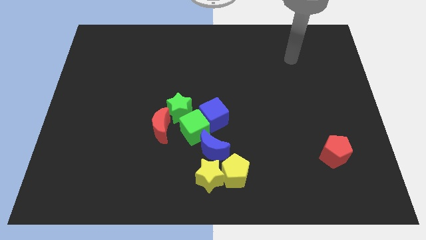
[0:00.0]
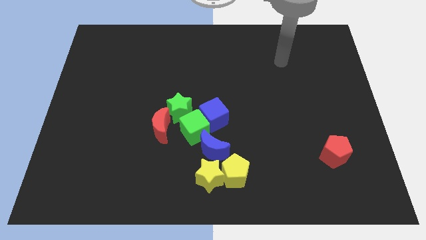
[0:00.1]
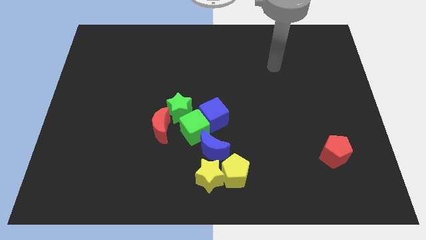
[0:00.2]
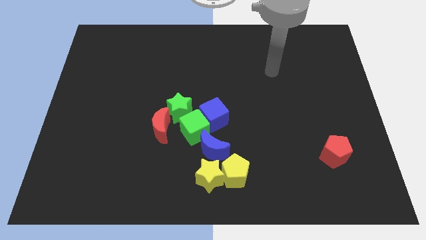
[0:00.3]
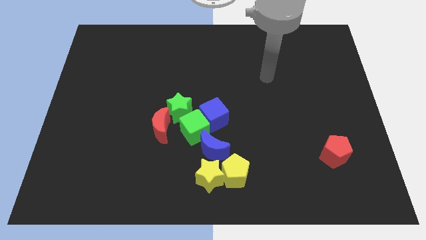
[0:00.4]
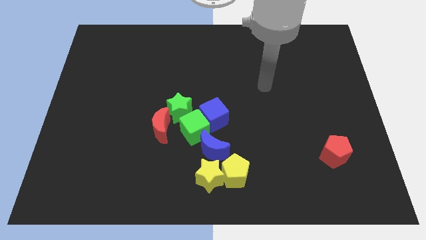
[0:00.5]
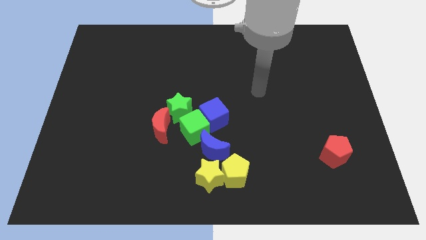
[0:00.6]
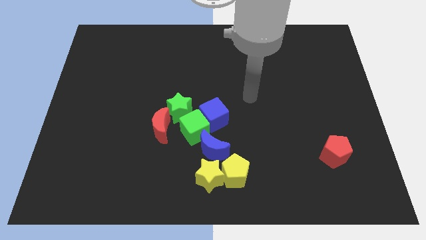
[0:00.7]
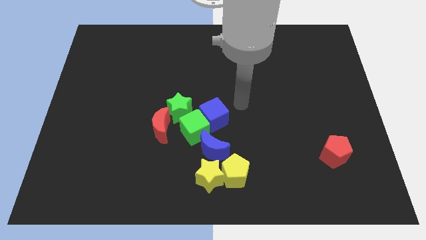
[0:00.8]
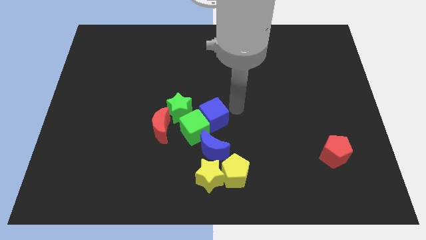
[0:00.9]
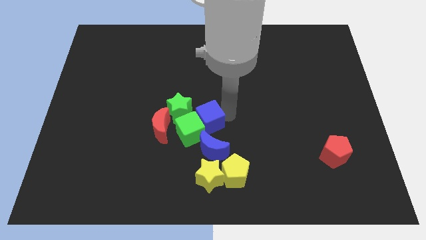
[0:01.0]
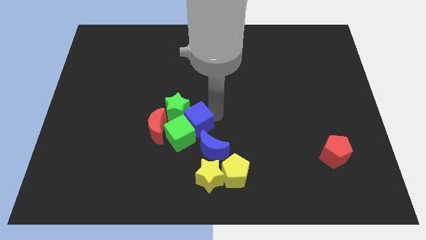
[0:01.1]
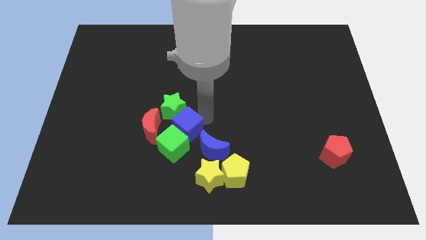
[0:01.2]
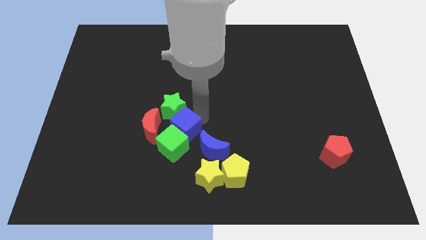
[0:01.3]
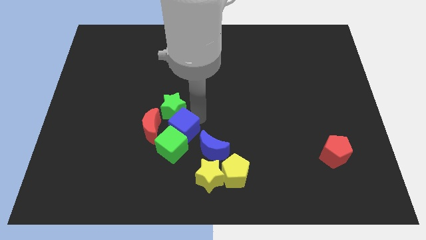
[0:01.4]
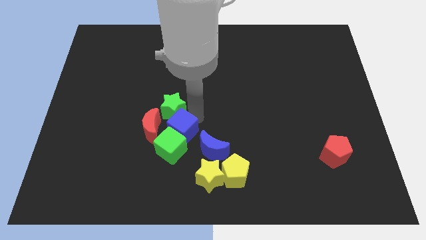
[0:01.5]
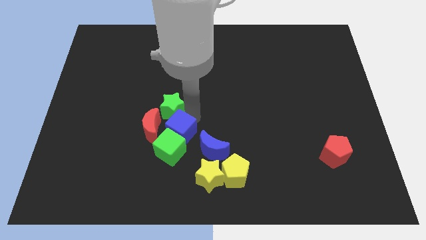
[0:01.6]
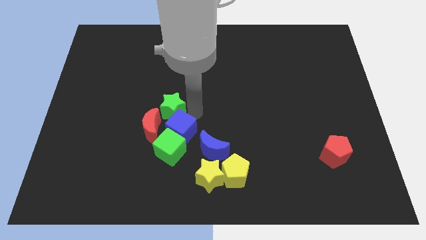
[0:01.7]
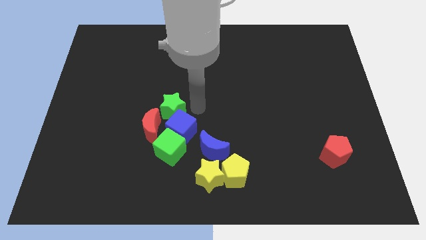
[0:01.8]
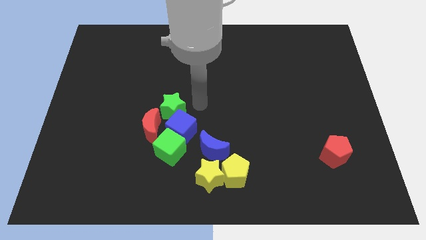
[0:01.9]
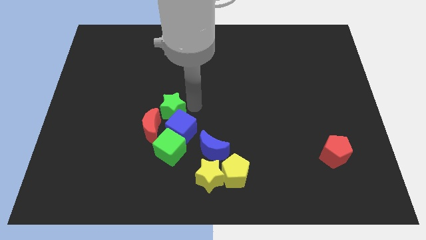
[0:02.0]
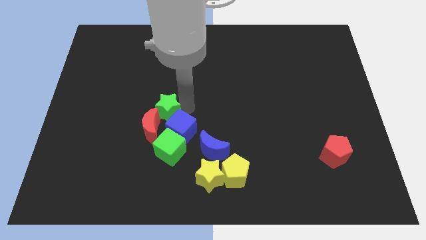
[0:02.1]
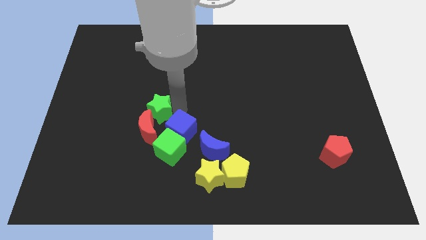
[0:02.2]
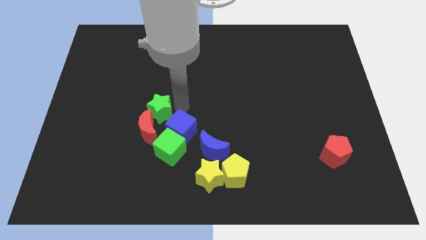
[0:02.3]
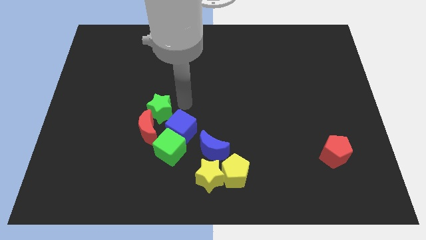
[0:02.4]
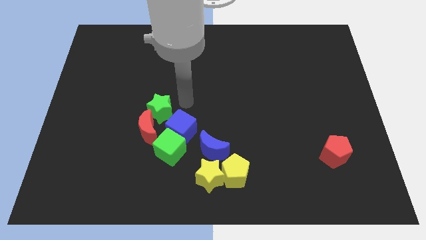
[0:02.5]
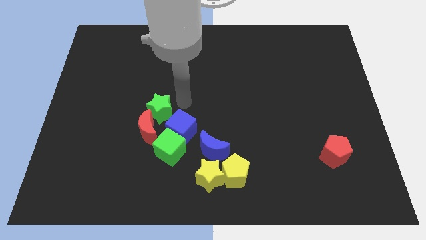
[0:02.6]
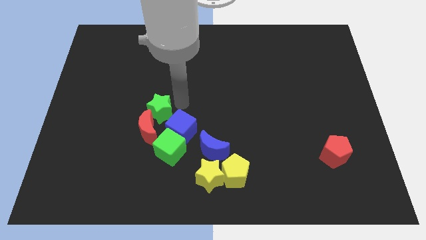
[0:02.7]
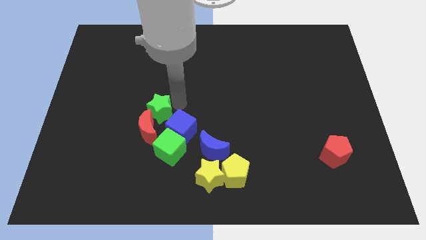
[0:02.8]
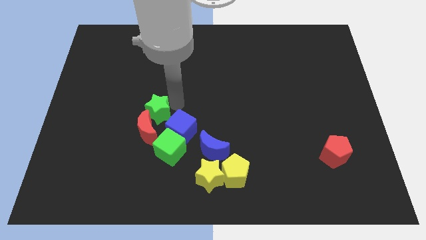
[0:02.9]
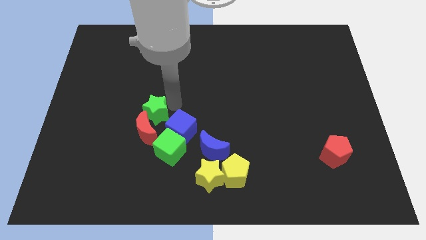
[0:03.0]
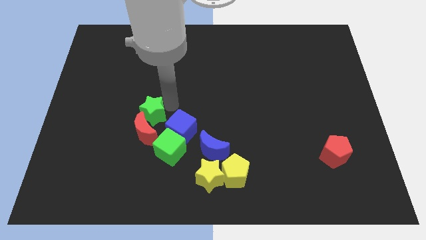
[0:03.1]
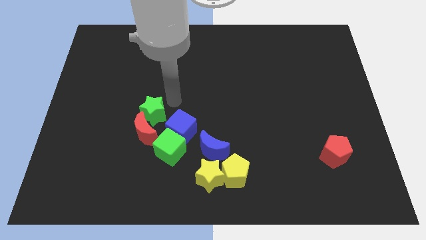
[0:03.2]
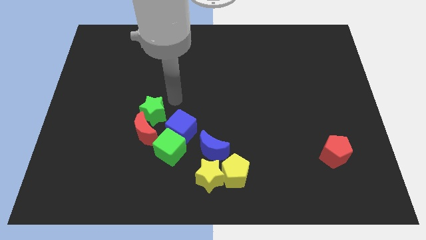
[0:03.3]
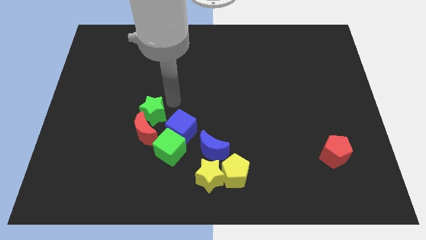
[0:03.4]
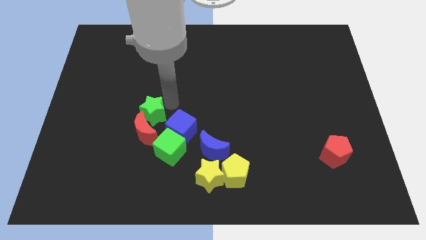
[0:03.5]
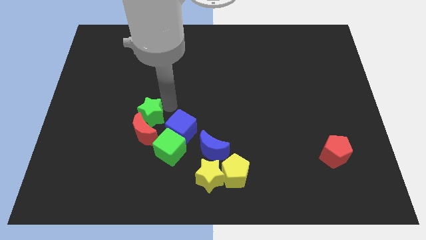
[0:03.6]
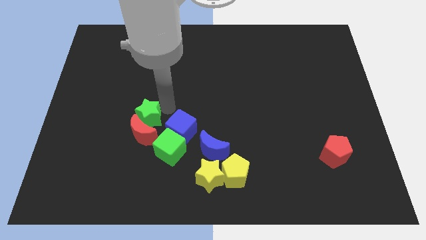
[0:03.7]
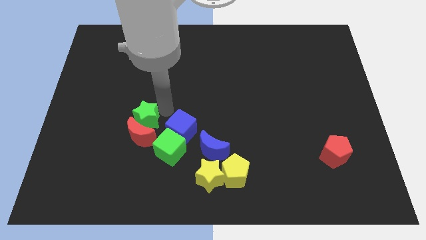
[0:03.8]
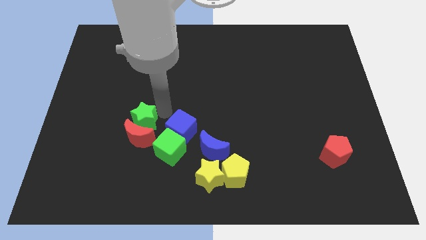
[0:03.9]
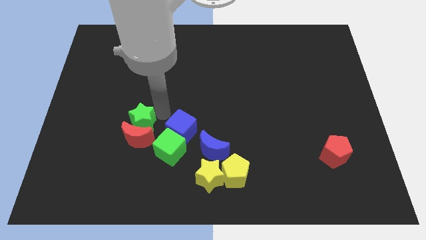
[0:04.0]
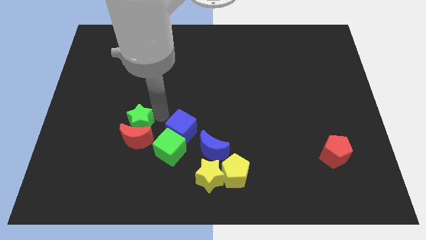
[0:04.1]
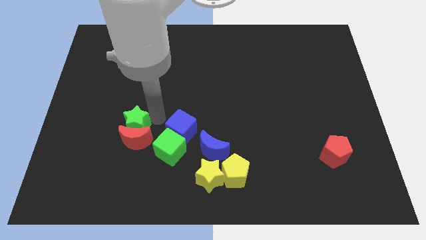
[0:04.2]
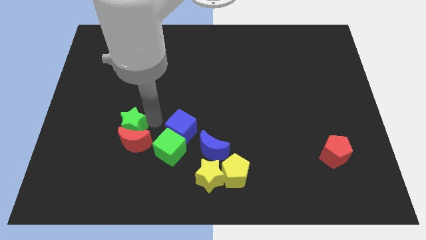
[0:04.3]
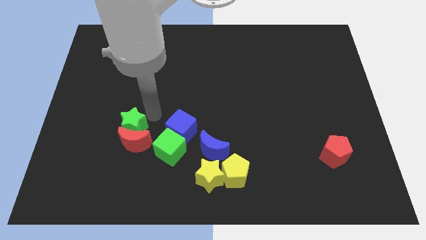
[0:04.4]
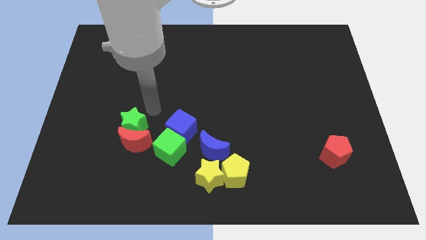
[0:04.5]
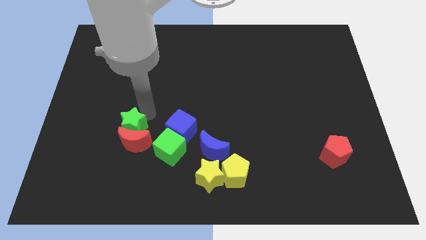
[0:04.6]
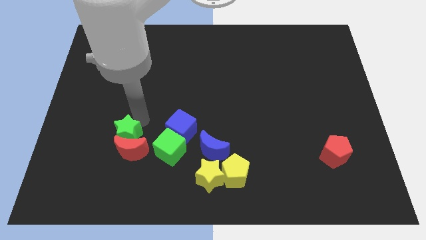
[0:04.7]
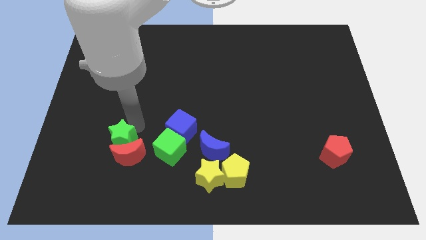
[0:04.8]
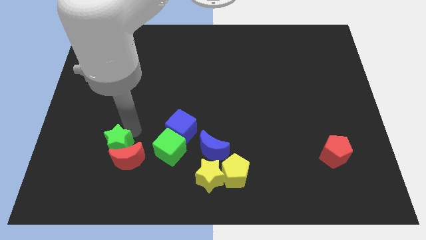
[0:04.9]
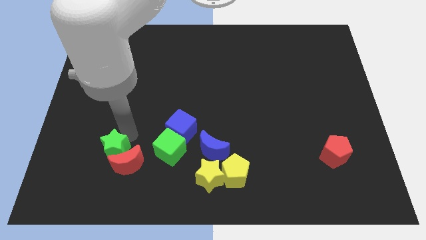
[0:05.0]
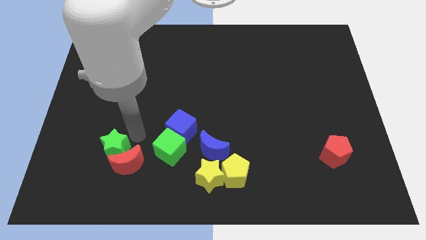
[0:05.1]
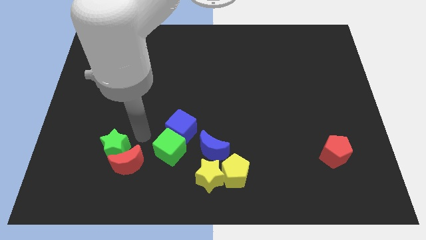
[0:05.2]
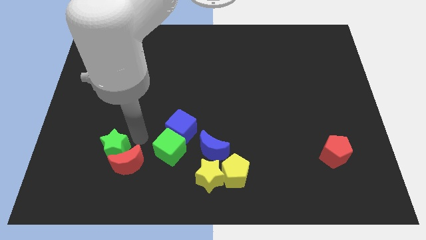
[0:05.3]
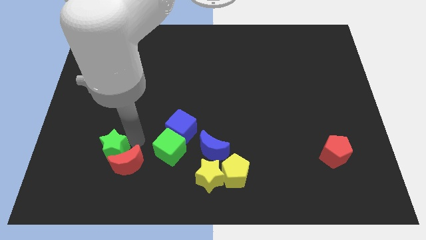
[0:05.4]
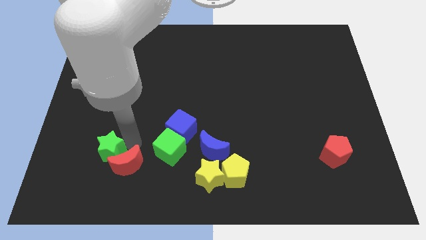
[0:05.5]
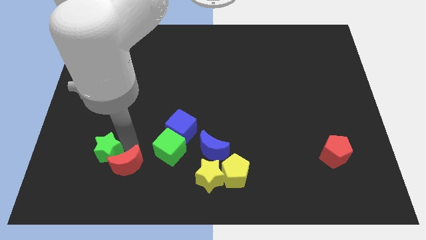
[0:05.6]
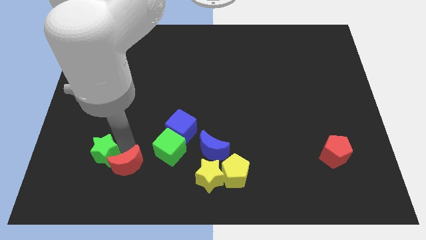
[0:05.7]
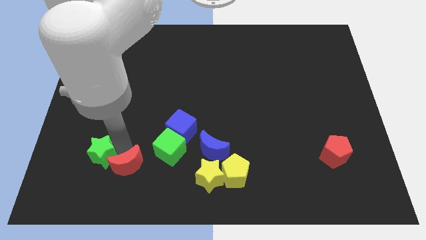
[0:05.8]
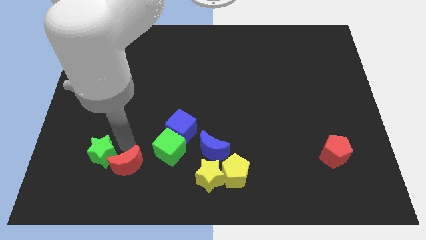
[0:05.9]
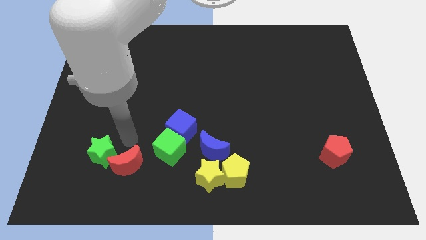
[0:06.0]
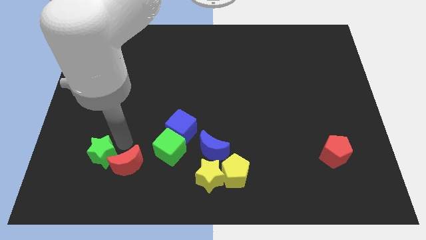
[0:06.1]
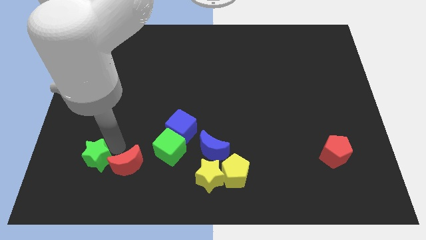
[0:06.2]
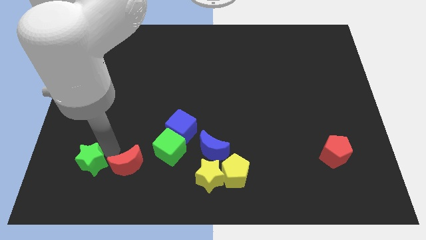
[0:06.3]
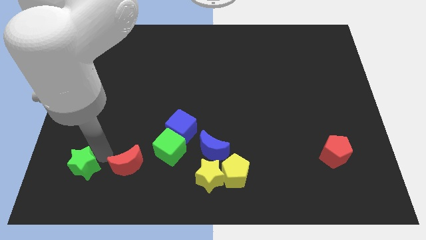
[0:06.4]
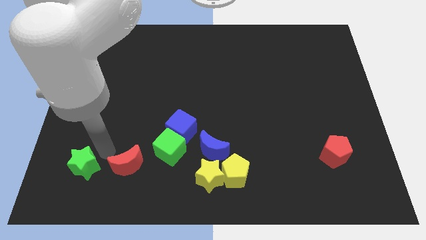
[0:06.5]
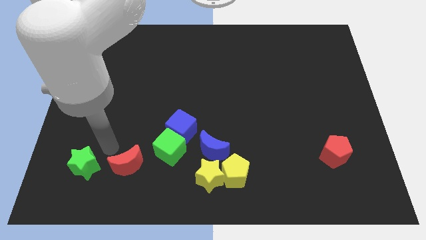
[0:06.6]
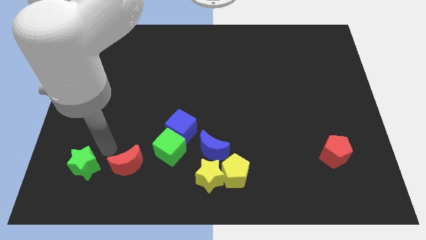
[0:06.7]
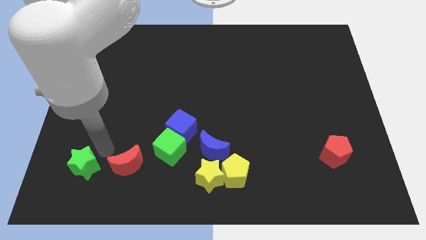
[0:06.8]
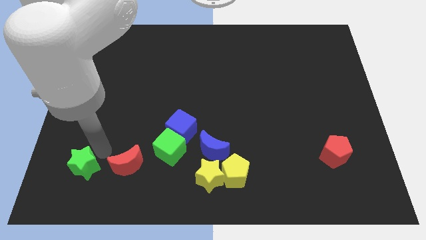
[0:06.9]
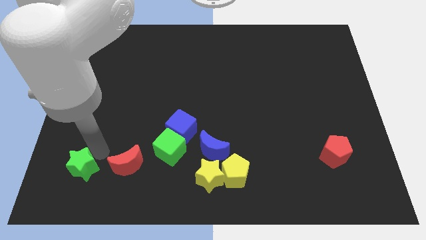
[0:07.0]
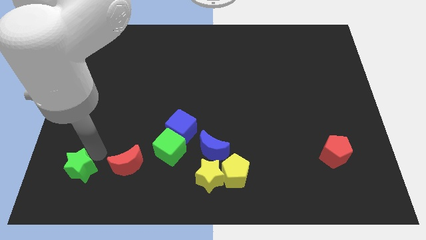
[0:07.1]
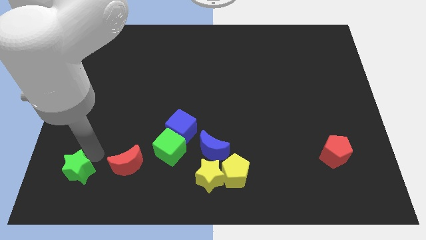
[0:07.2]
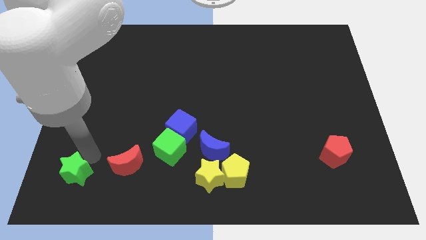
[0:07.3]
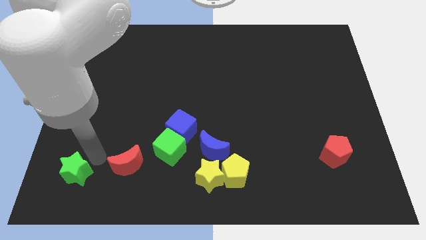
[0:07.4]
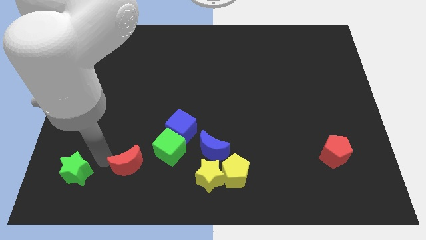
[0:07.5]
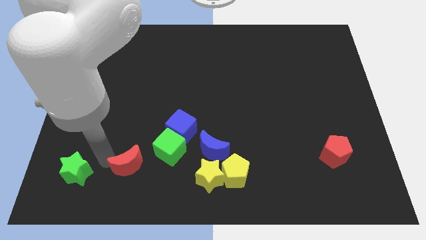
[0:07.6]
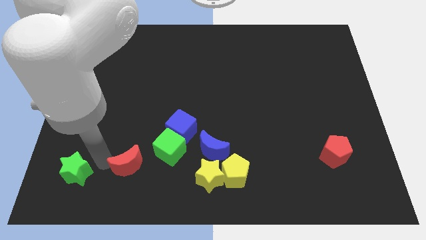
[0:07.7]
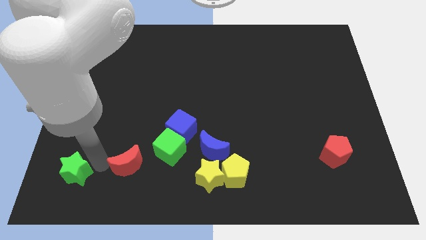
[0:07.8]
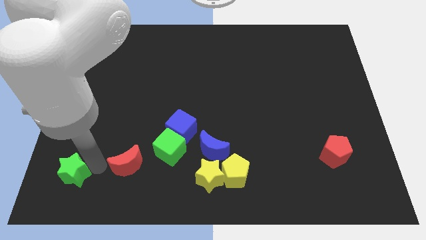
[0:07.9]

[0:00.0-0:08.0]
move the green star to the bottom left of the board
